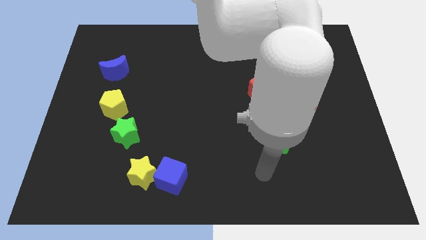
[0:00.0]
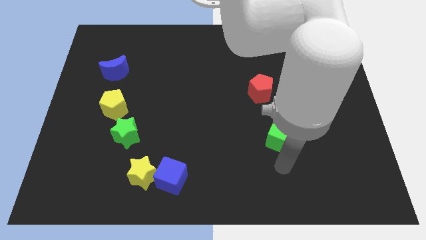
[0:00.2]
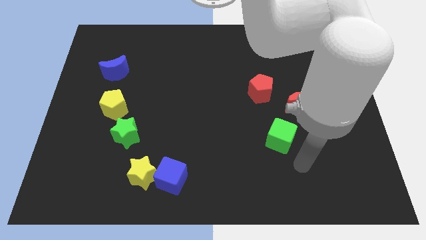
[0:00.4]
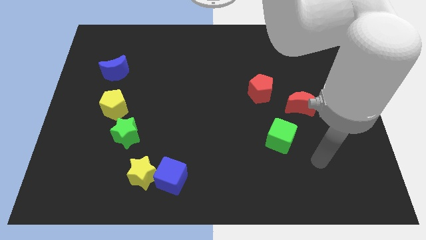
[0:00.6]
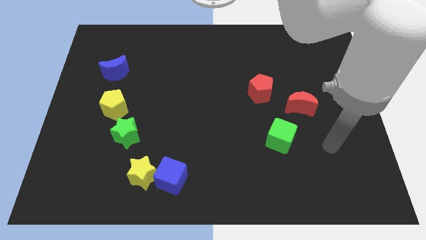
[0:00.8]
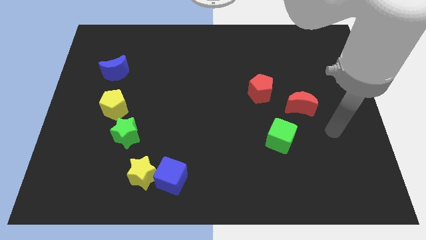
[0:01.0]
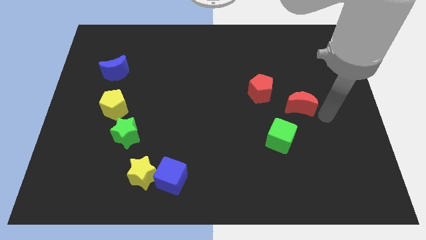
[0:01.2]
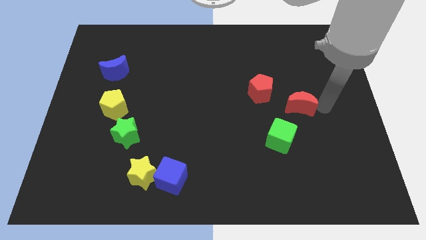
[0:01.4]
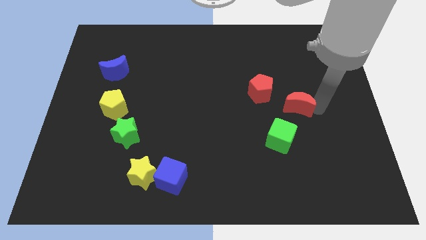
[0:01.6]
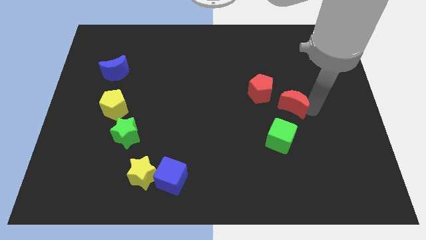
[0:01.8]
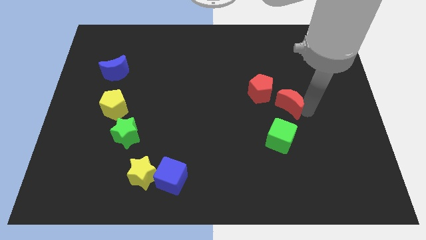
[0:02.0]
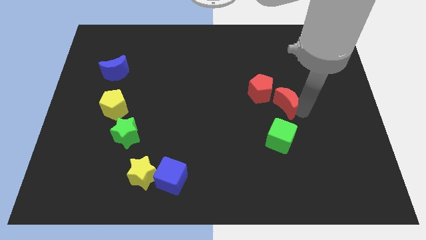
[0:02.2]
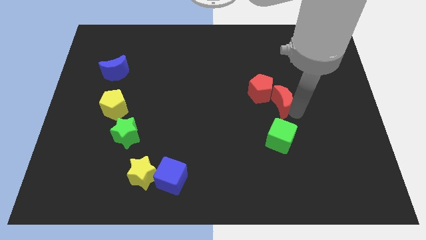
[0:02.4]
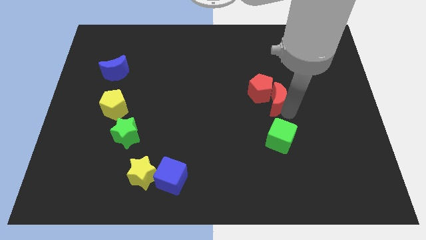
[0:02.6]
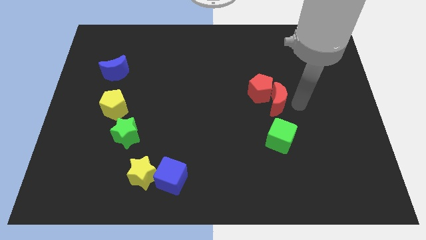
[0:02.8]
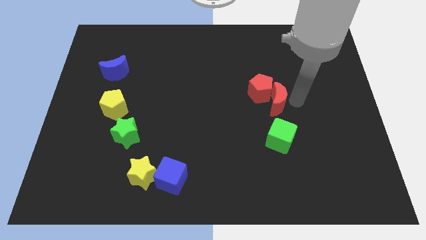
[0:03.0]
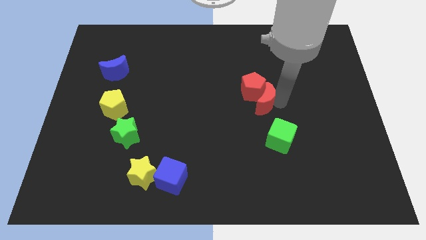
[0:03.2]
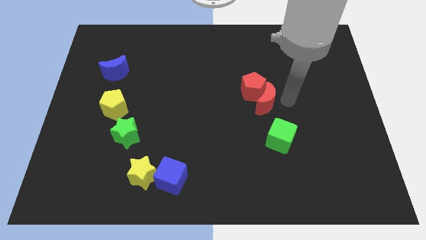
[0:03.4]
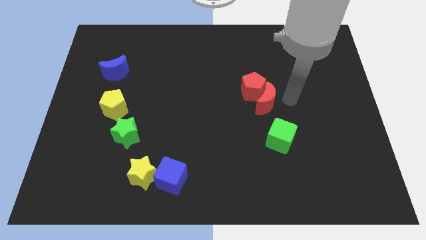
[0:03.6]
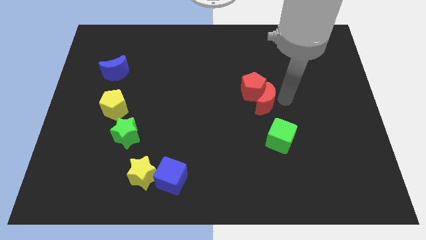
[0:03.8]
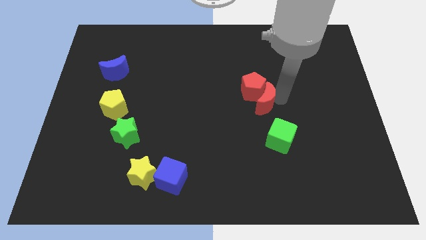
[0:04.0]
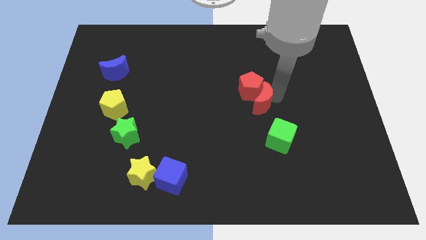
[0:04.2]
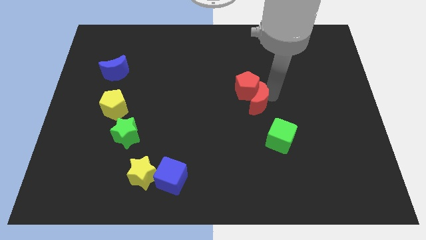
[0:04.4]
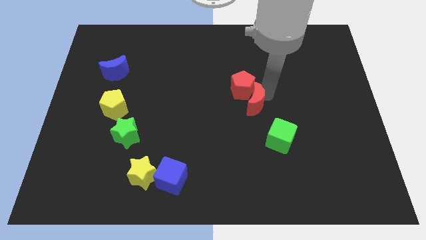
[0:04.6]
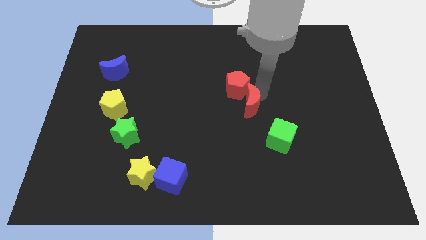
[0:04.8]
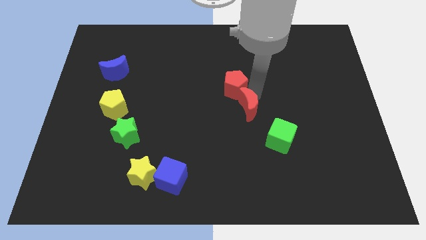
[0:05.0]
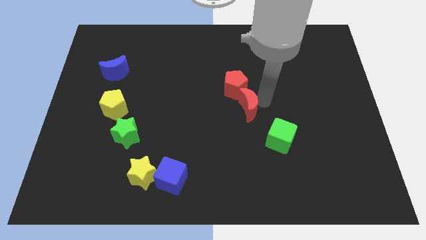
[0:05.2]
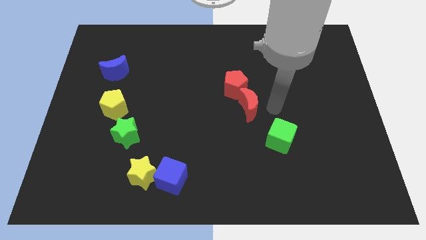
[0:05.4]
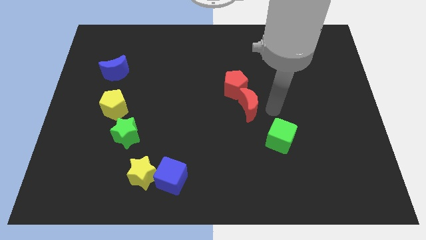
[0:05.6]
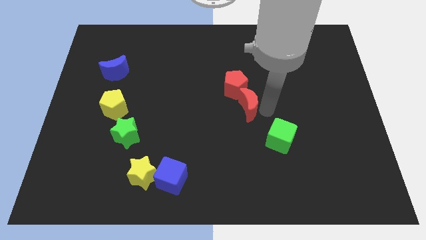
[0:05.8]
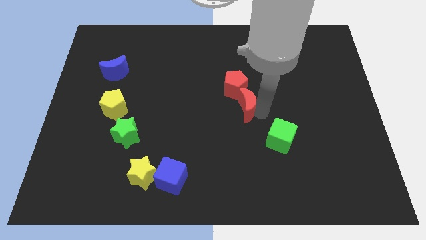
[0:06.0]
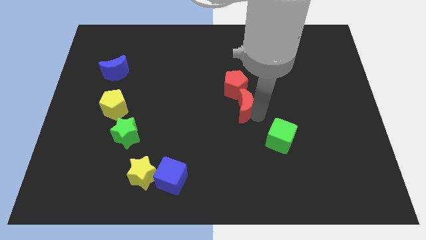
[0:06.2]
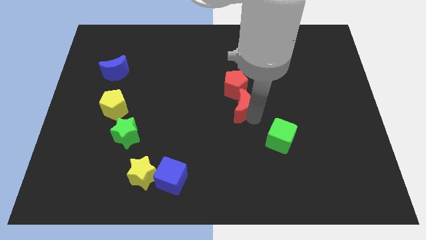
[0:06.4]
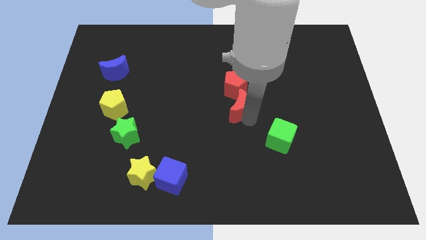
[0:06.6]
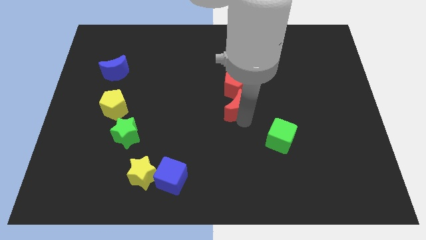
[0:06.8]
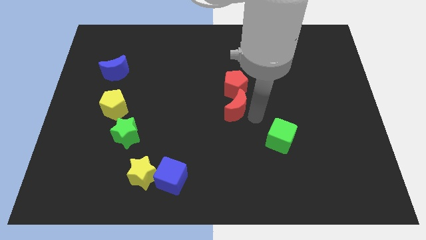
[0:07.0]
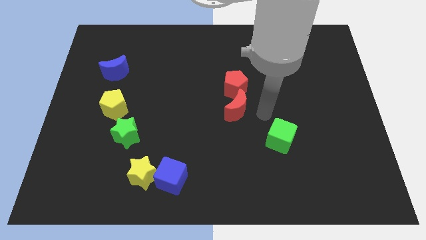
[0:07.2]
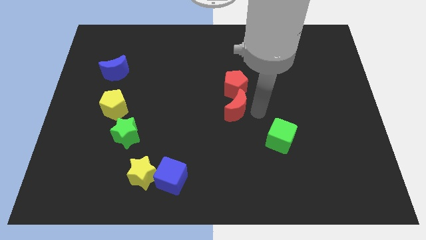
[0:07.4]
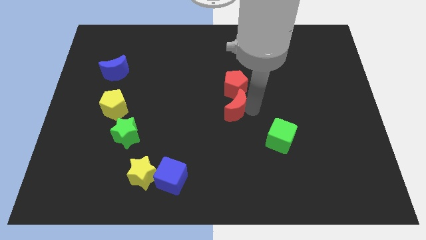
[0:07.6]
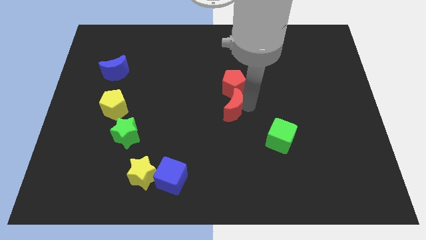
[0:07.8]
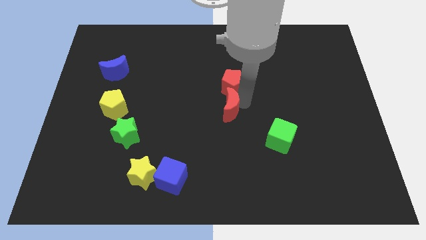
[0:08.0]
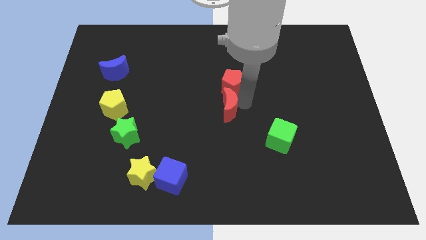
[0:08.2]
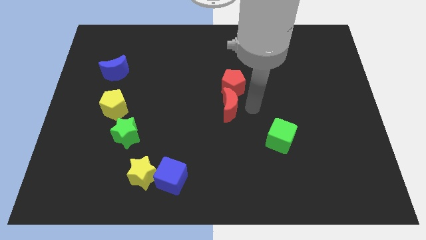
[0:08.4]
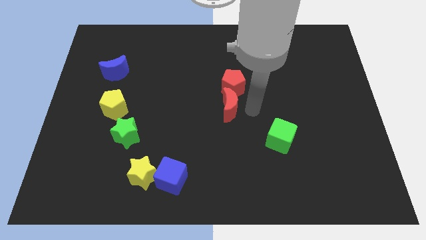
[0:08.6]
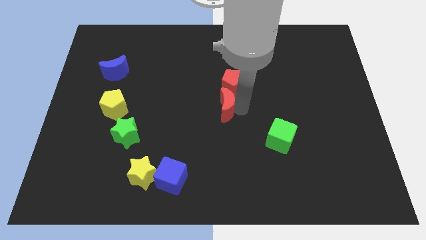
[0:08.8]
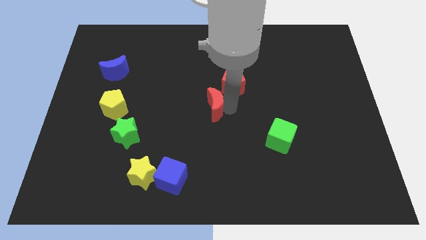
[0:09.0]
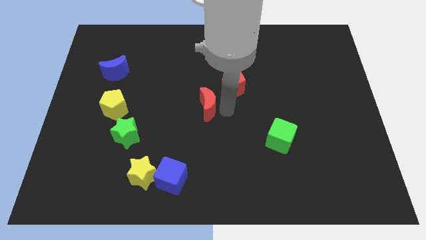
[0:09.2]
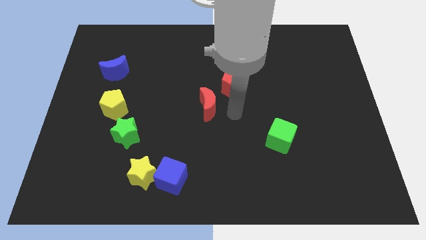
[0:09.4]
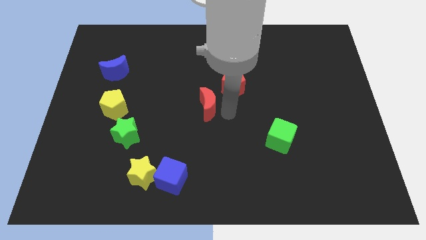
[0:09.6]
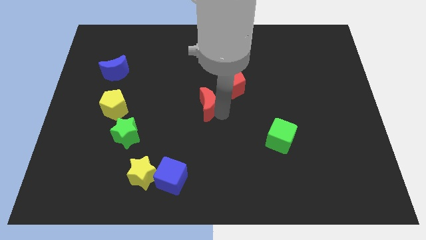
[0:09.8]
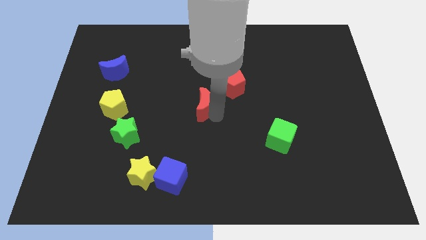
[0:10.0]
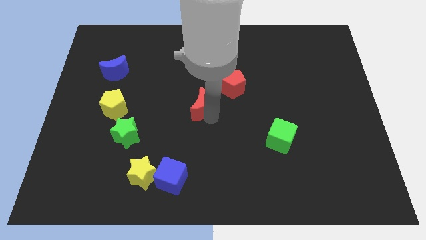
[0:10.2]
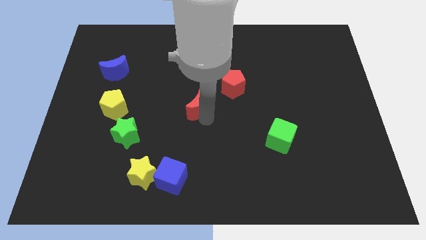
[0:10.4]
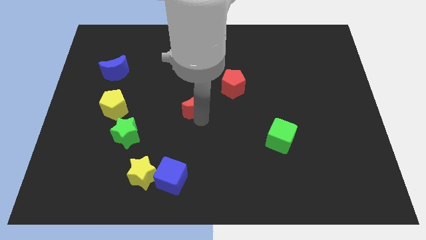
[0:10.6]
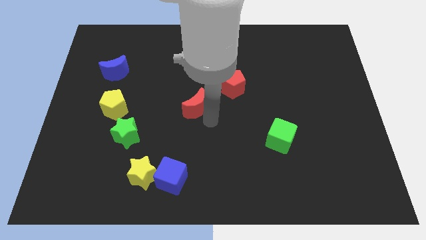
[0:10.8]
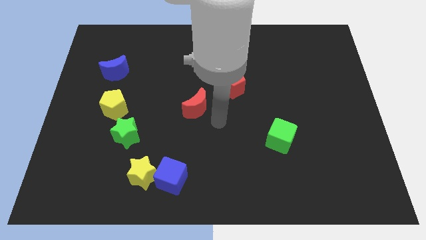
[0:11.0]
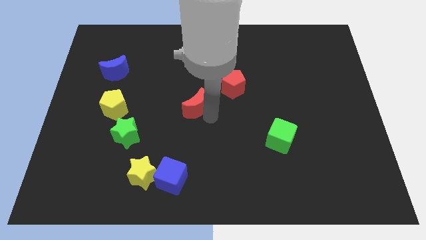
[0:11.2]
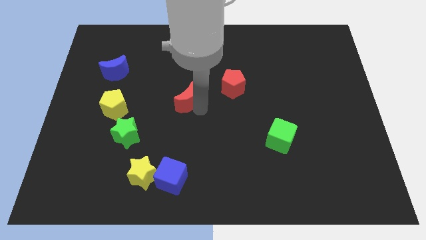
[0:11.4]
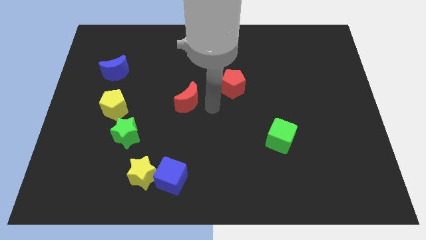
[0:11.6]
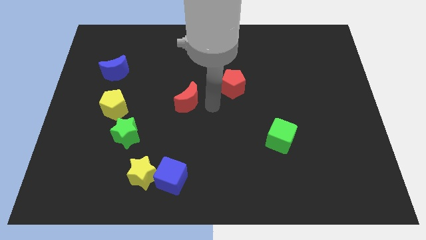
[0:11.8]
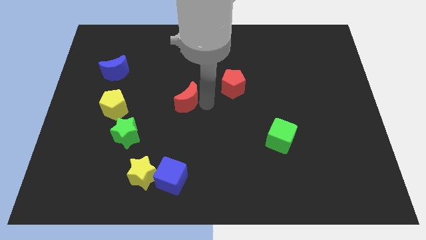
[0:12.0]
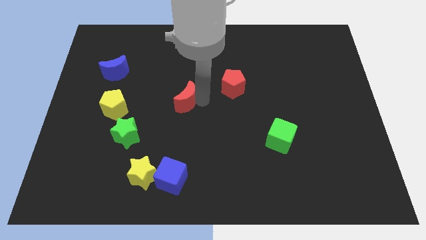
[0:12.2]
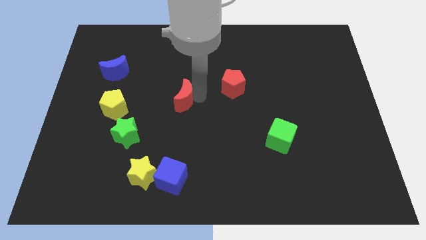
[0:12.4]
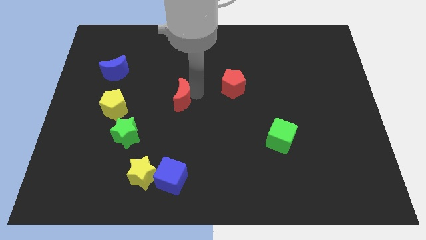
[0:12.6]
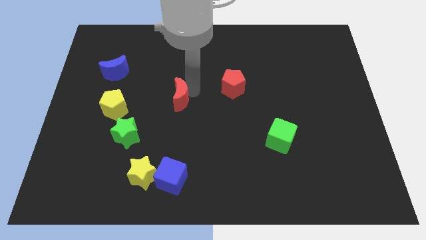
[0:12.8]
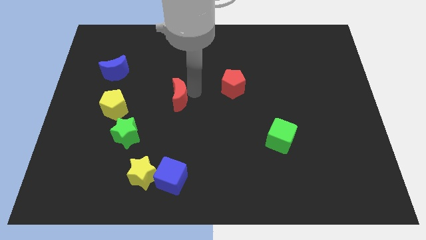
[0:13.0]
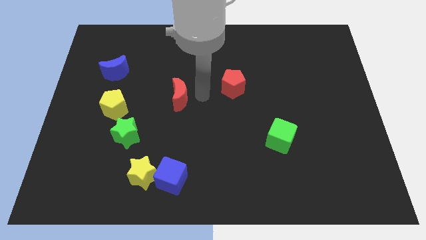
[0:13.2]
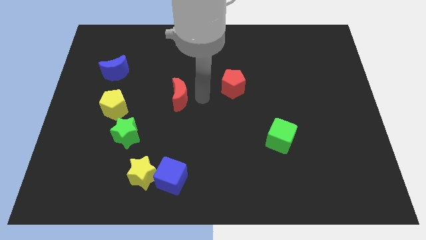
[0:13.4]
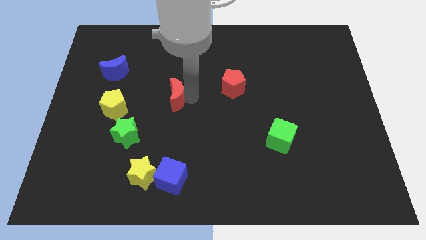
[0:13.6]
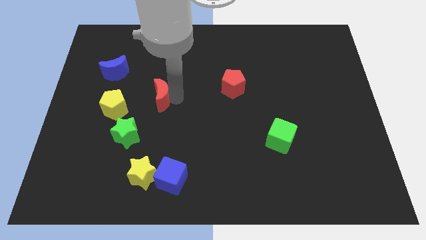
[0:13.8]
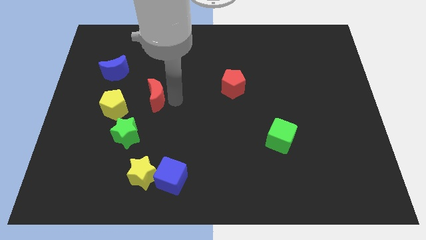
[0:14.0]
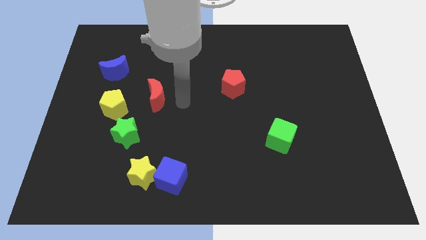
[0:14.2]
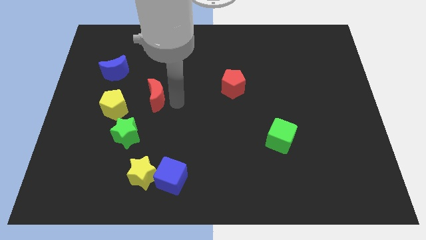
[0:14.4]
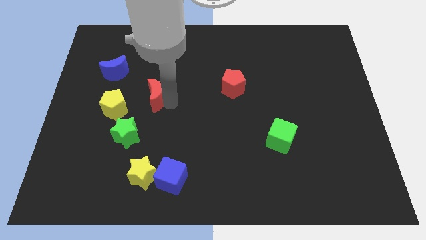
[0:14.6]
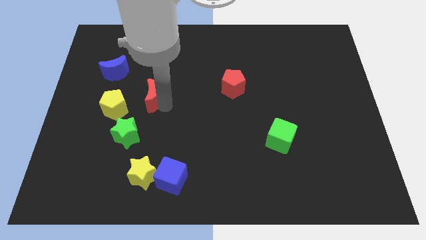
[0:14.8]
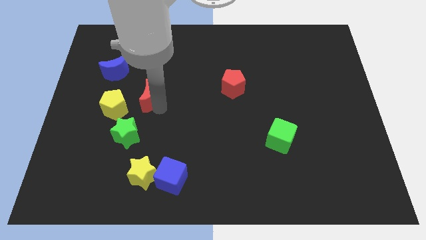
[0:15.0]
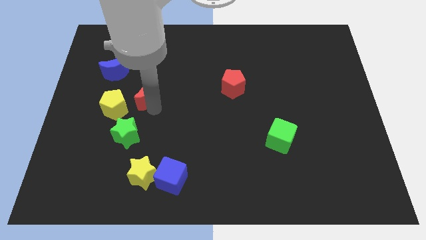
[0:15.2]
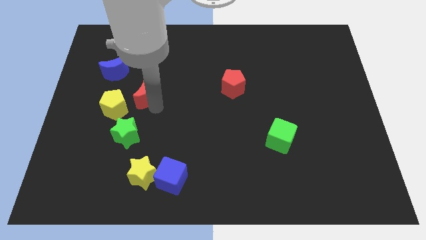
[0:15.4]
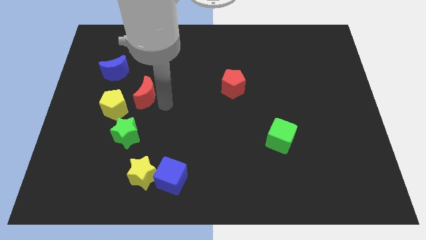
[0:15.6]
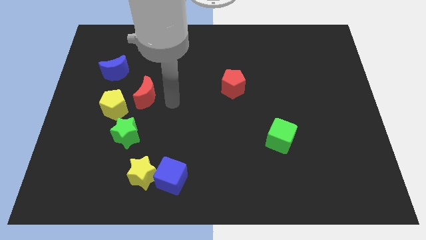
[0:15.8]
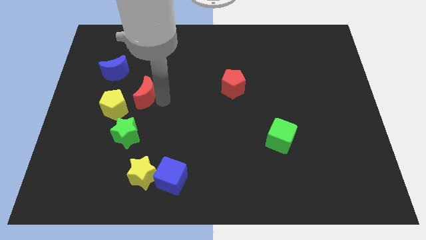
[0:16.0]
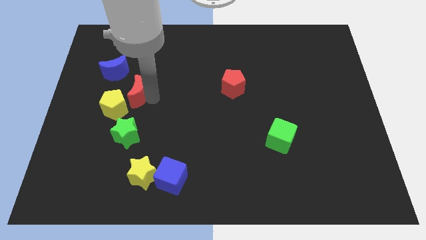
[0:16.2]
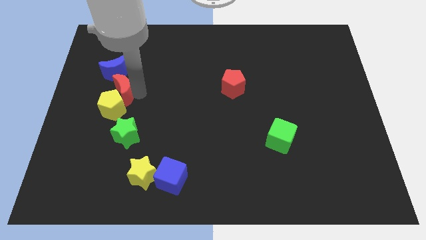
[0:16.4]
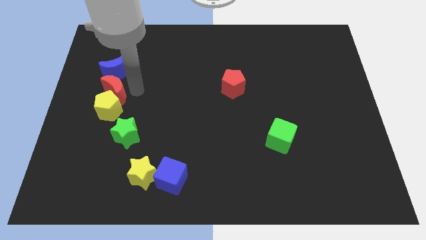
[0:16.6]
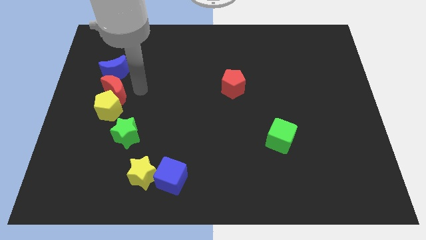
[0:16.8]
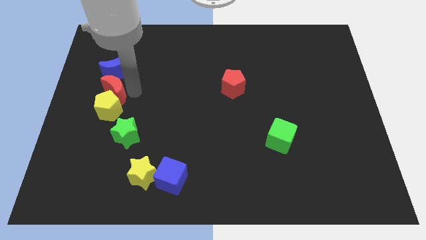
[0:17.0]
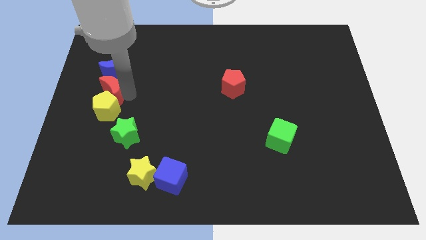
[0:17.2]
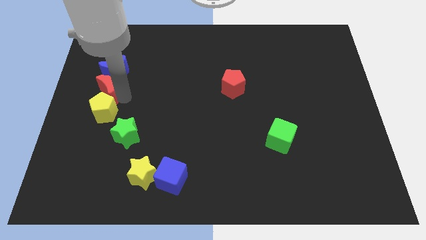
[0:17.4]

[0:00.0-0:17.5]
move the red moon to the center left
